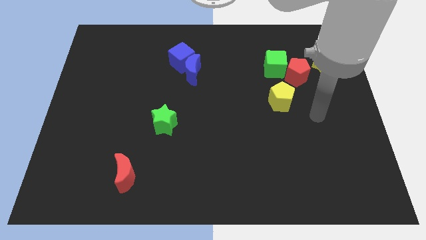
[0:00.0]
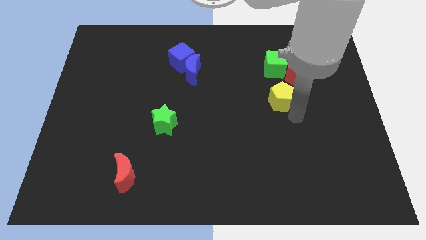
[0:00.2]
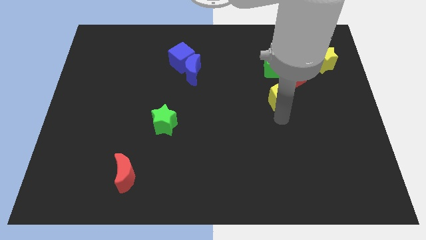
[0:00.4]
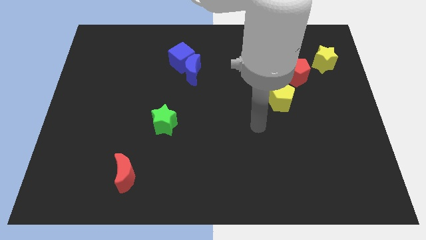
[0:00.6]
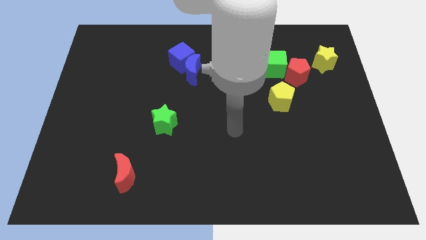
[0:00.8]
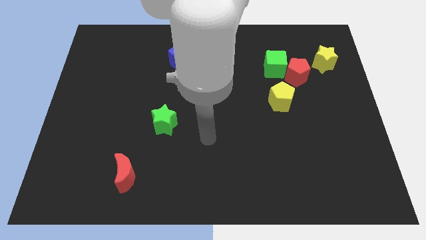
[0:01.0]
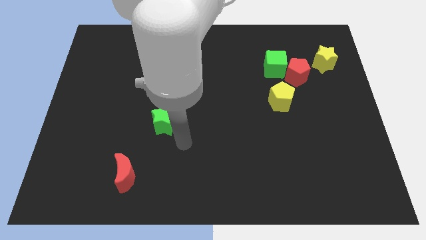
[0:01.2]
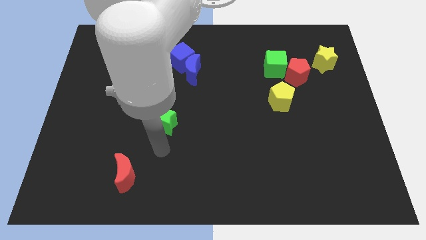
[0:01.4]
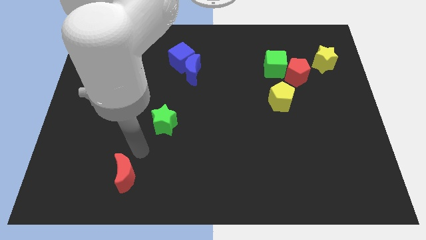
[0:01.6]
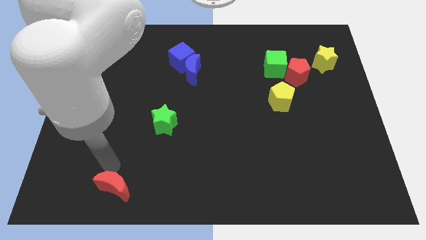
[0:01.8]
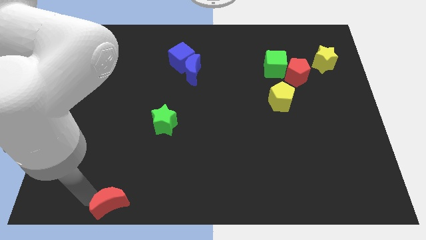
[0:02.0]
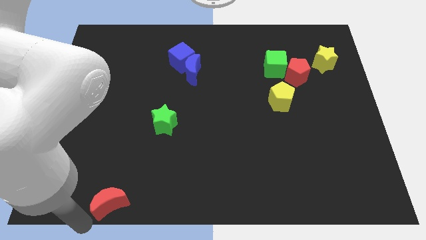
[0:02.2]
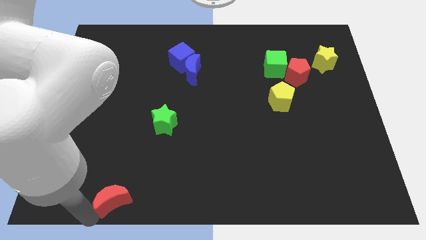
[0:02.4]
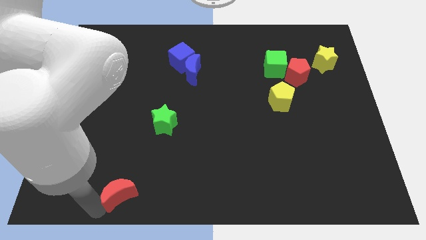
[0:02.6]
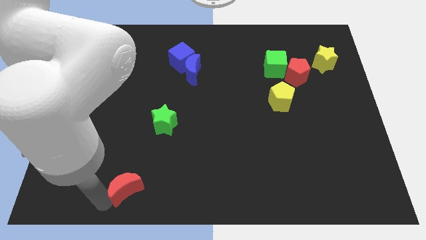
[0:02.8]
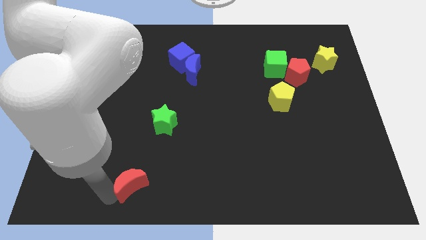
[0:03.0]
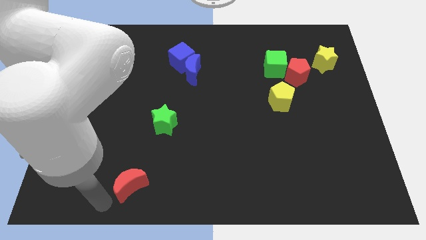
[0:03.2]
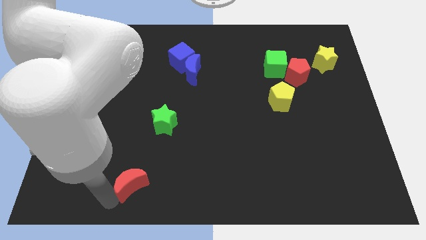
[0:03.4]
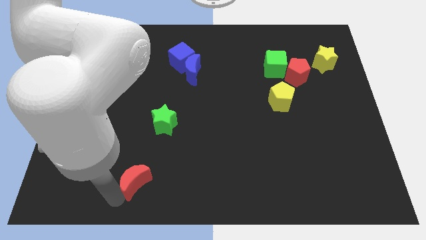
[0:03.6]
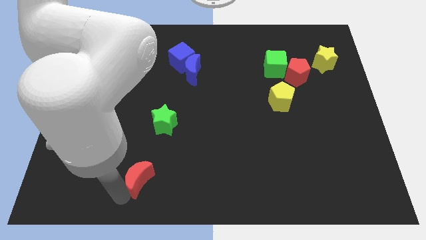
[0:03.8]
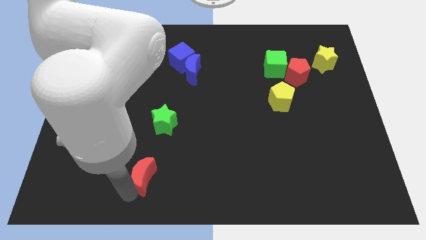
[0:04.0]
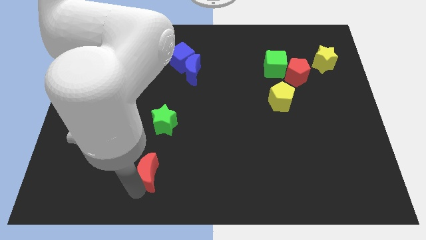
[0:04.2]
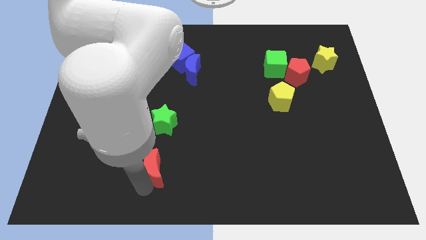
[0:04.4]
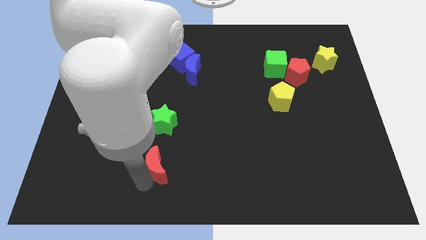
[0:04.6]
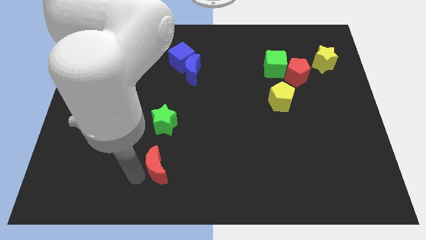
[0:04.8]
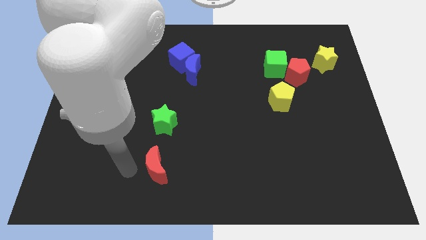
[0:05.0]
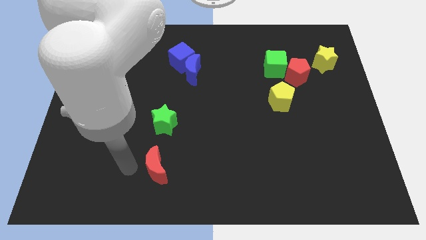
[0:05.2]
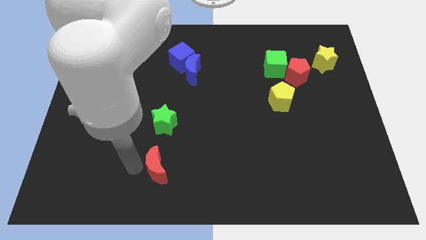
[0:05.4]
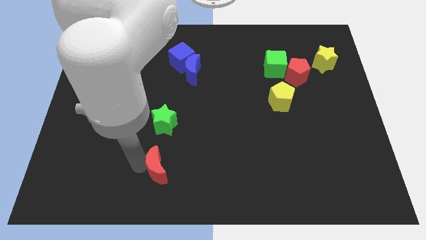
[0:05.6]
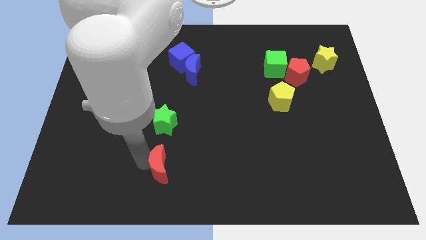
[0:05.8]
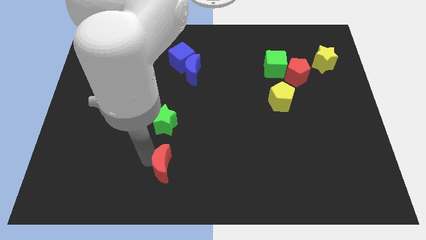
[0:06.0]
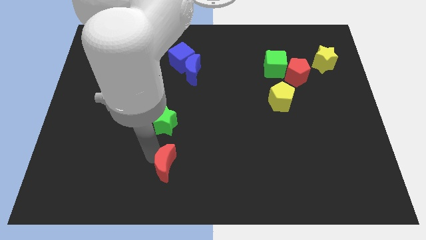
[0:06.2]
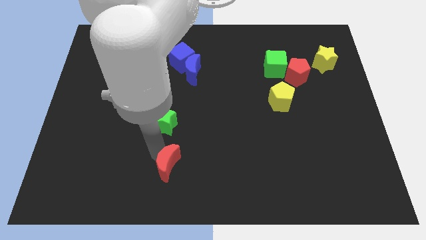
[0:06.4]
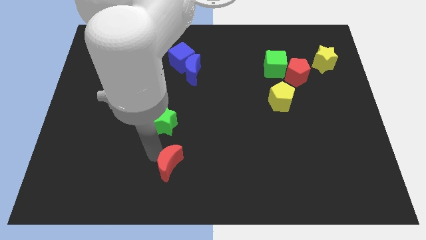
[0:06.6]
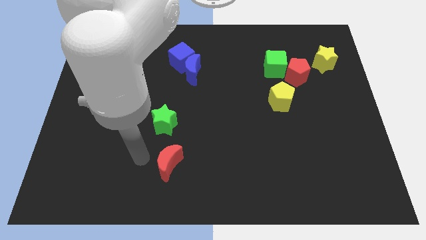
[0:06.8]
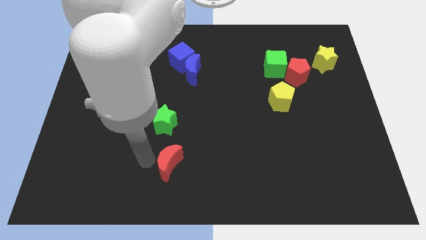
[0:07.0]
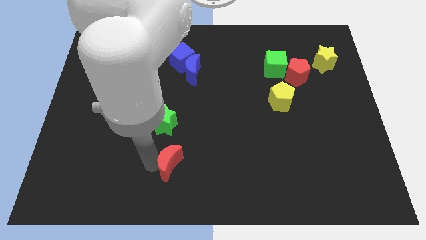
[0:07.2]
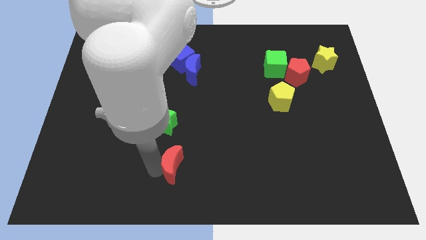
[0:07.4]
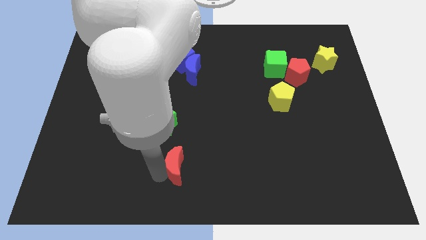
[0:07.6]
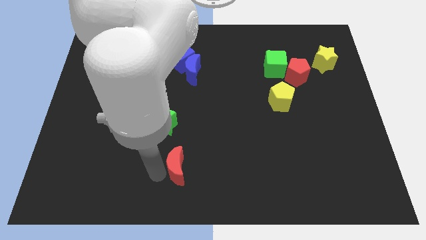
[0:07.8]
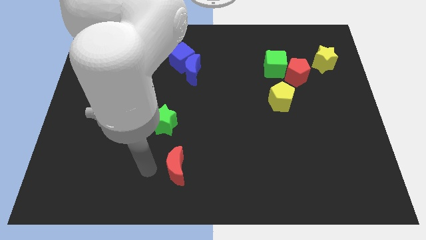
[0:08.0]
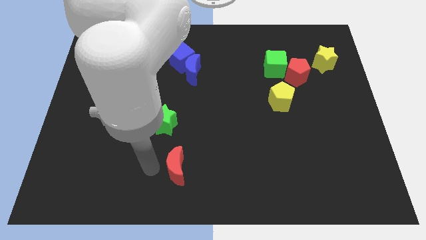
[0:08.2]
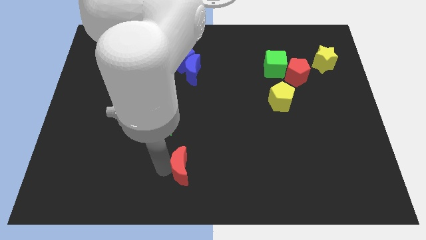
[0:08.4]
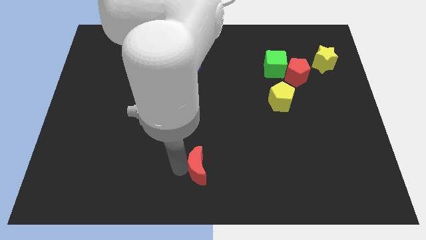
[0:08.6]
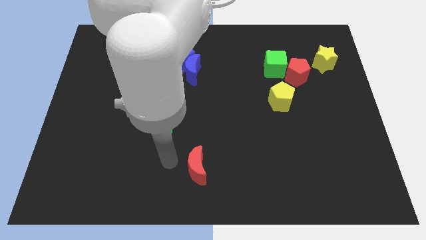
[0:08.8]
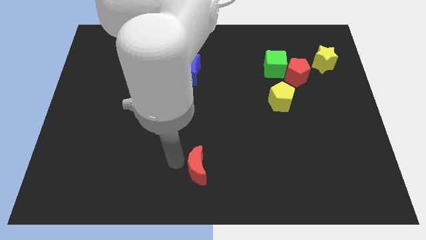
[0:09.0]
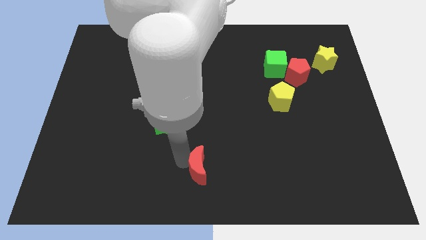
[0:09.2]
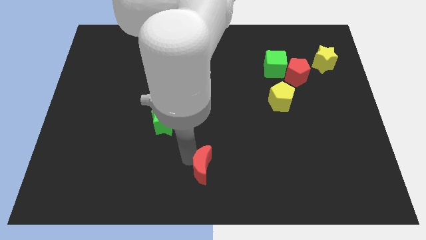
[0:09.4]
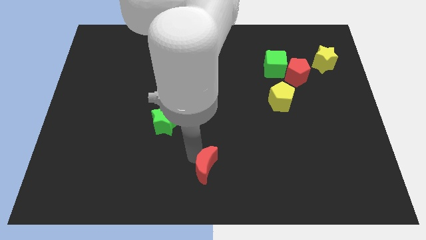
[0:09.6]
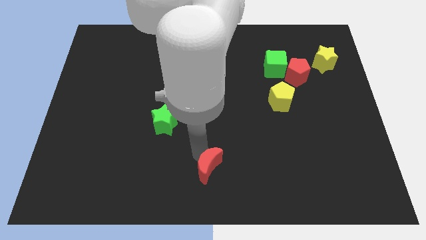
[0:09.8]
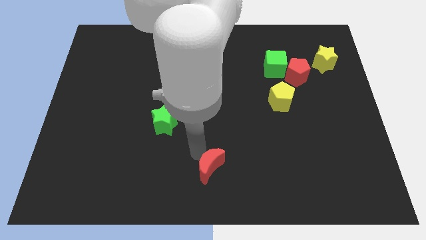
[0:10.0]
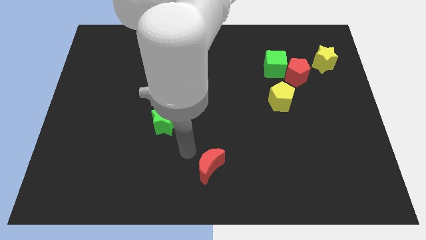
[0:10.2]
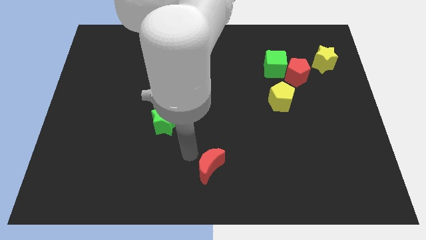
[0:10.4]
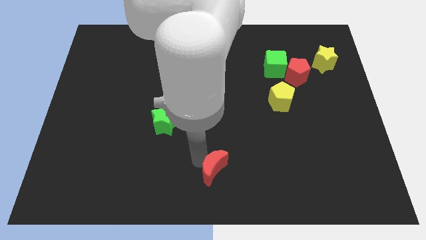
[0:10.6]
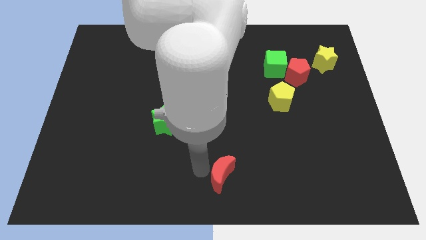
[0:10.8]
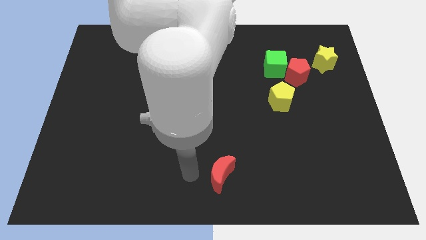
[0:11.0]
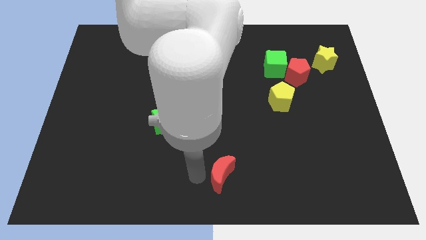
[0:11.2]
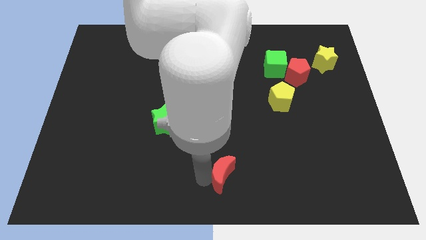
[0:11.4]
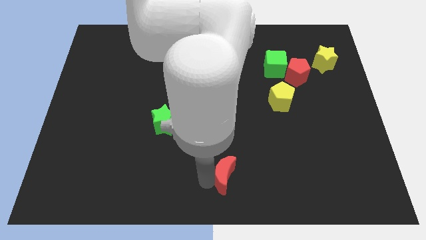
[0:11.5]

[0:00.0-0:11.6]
move the red moon right

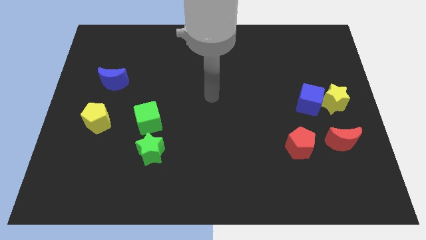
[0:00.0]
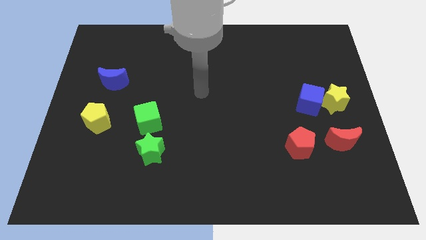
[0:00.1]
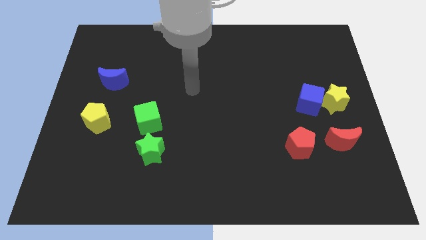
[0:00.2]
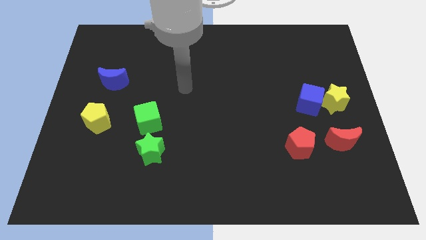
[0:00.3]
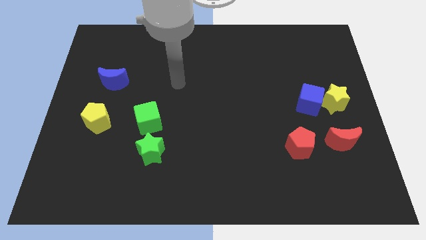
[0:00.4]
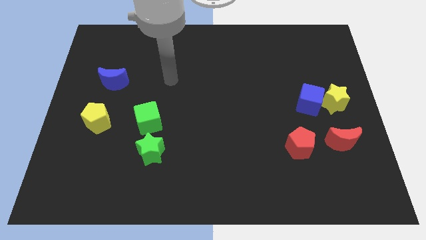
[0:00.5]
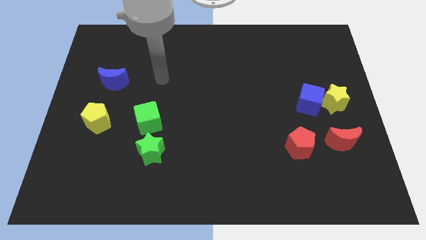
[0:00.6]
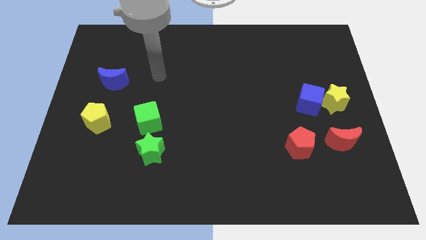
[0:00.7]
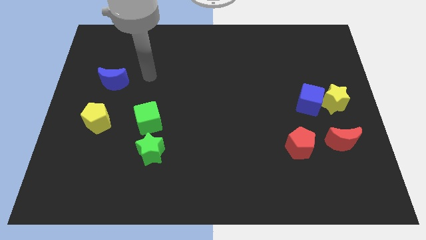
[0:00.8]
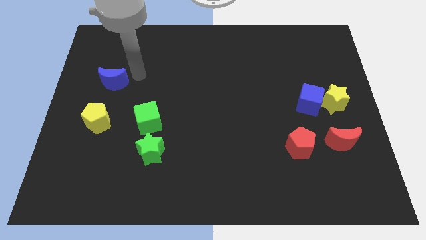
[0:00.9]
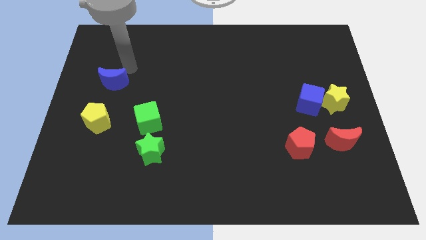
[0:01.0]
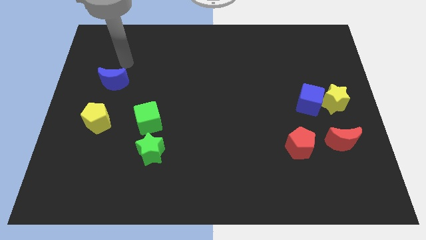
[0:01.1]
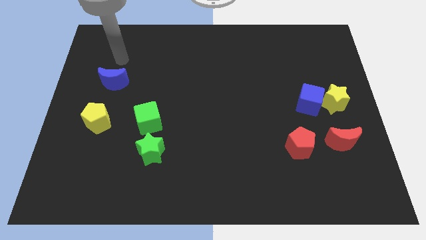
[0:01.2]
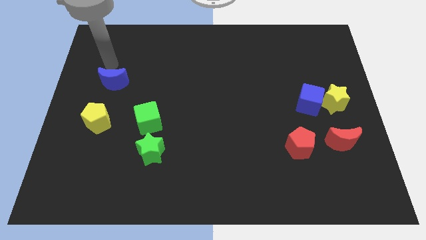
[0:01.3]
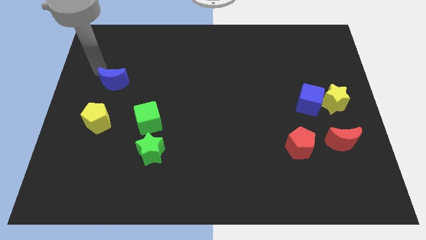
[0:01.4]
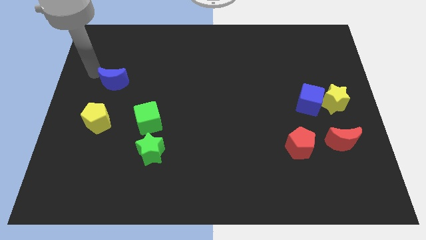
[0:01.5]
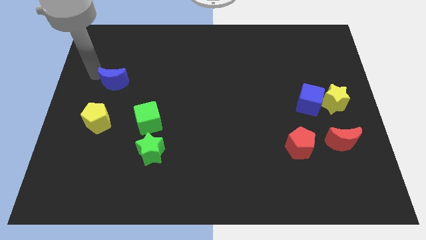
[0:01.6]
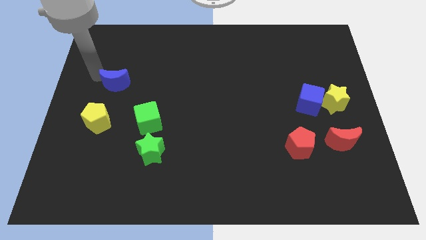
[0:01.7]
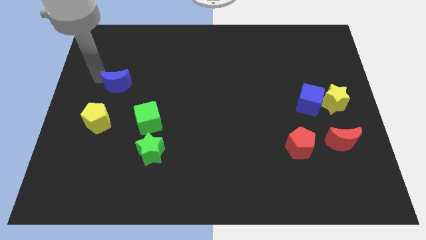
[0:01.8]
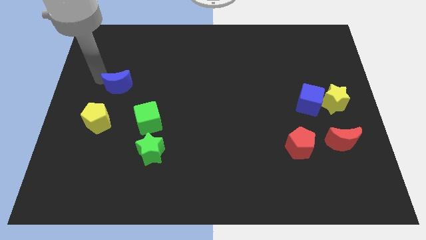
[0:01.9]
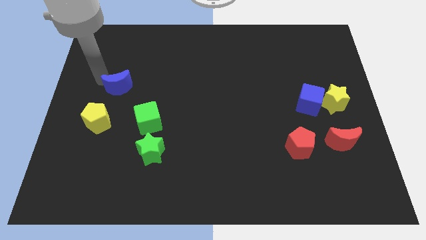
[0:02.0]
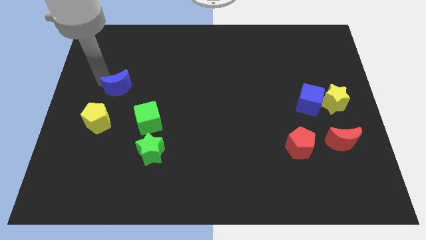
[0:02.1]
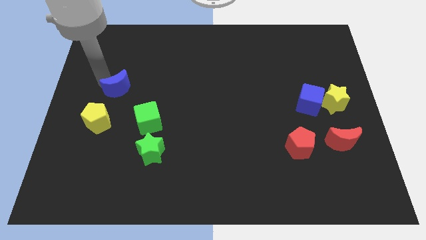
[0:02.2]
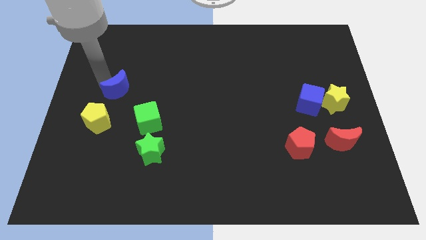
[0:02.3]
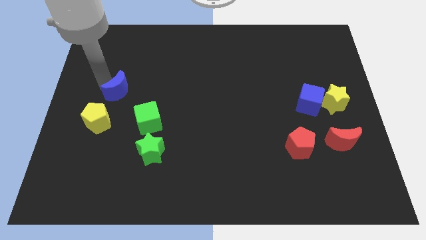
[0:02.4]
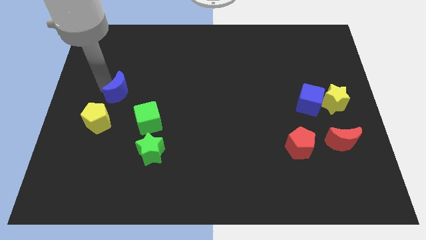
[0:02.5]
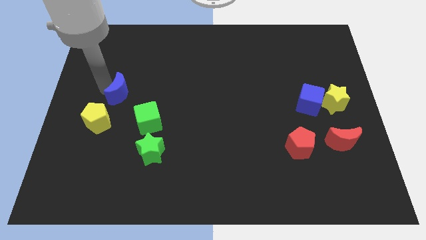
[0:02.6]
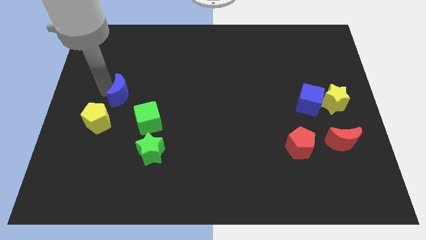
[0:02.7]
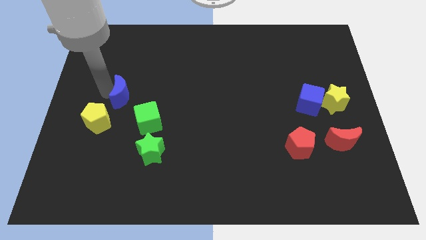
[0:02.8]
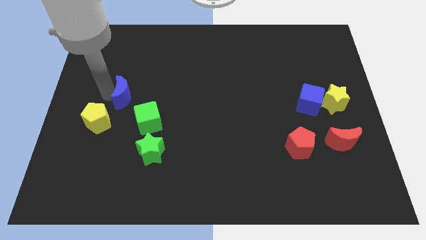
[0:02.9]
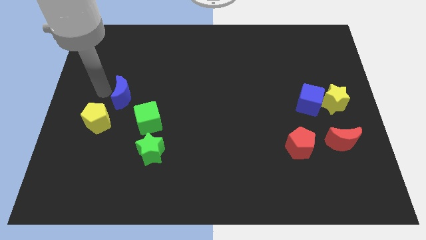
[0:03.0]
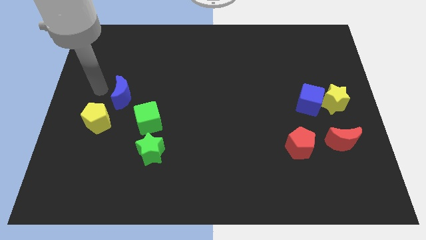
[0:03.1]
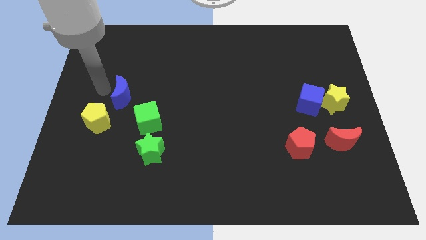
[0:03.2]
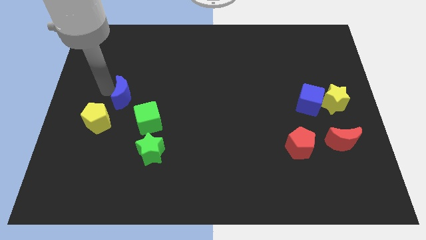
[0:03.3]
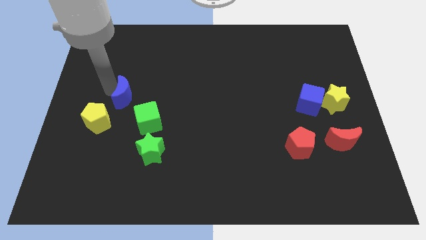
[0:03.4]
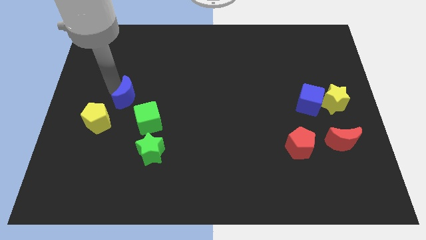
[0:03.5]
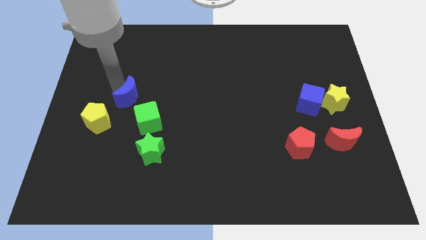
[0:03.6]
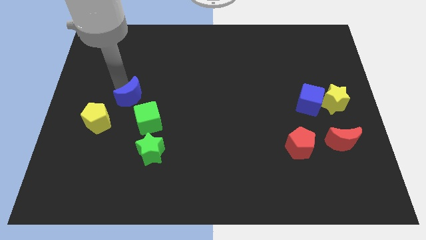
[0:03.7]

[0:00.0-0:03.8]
slide the blue moon a little bit downwards and then right
